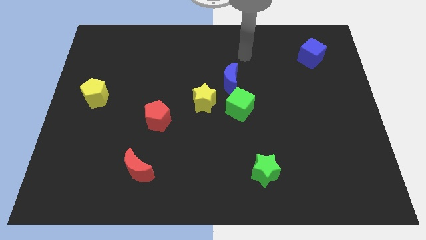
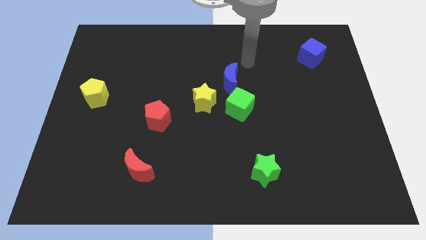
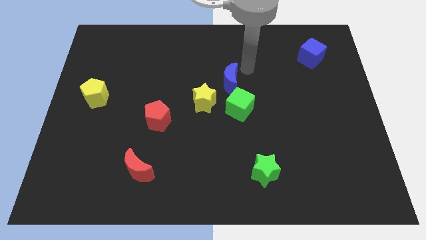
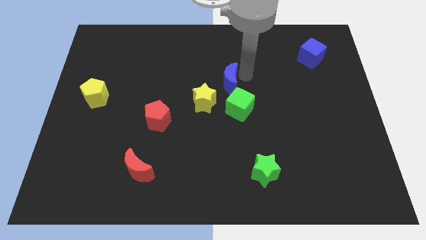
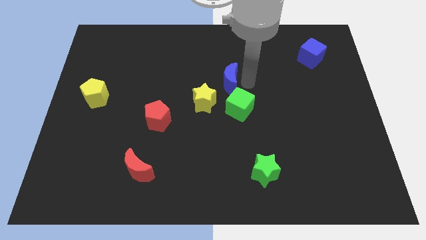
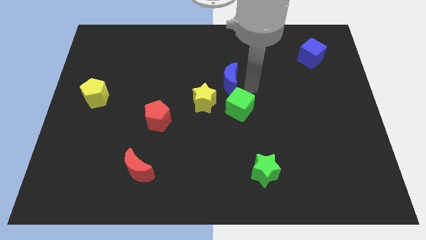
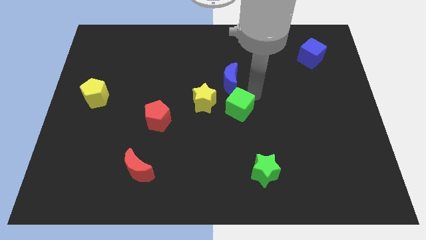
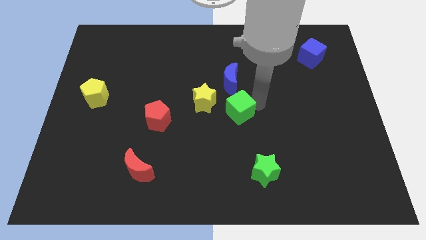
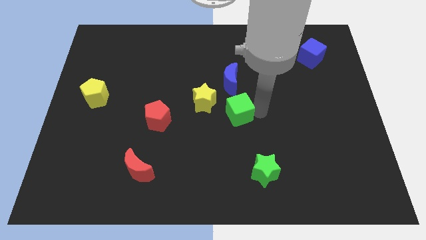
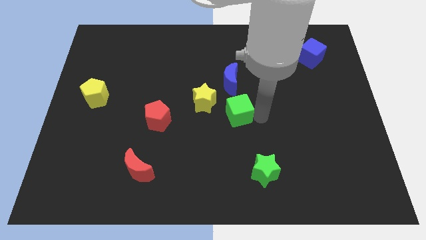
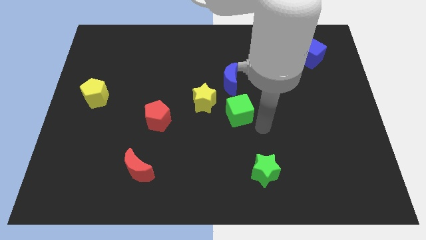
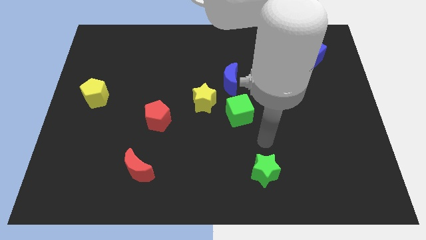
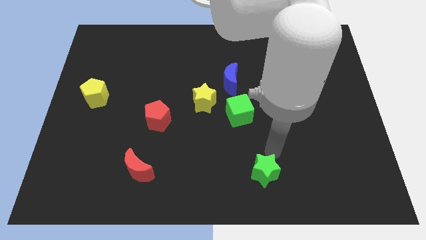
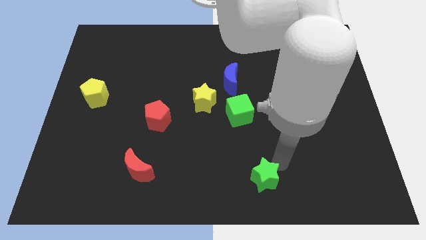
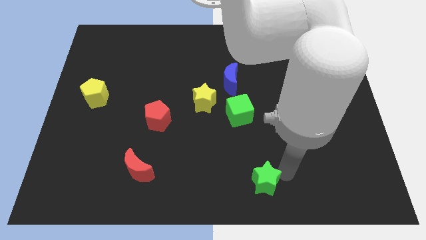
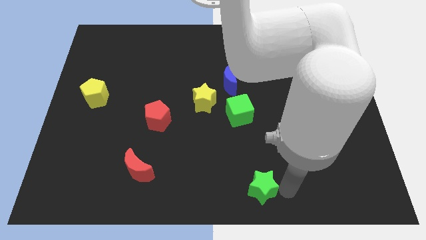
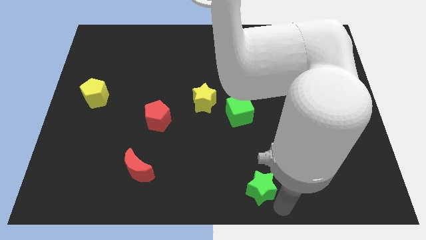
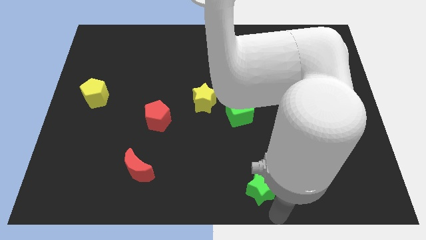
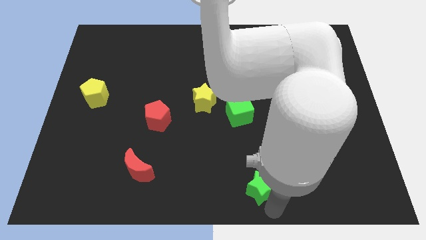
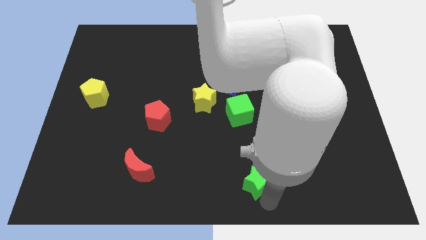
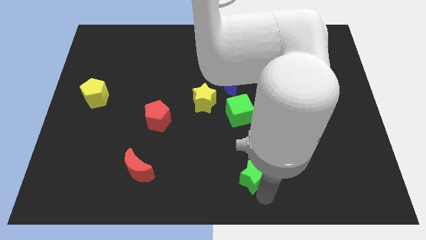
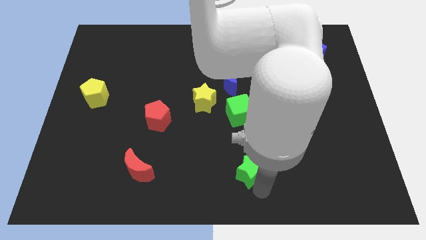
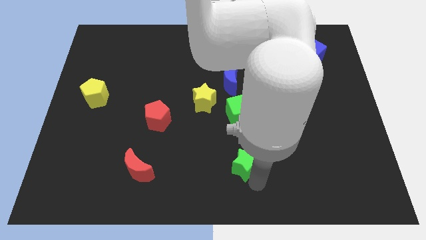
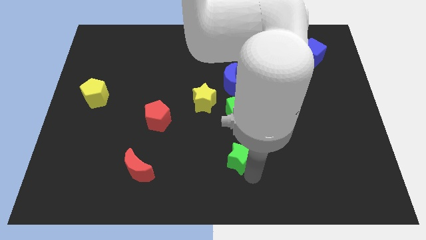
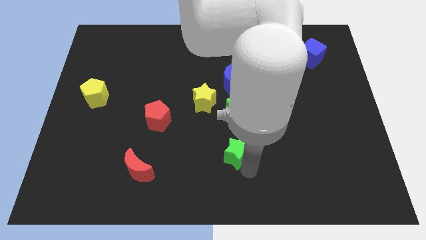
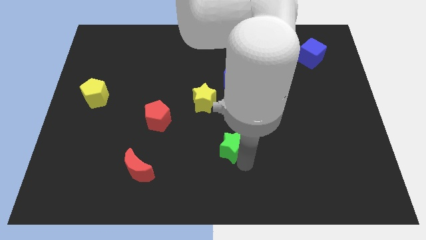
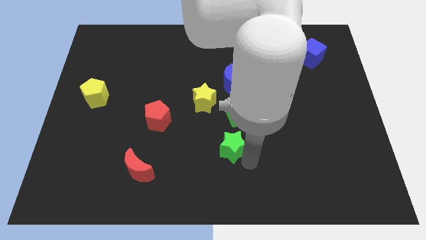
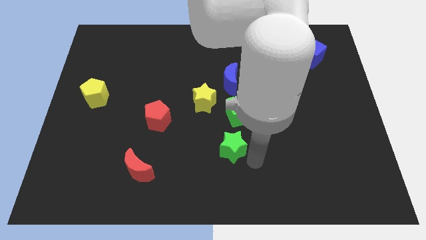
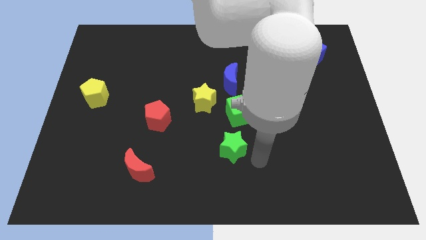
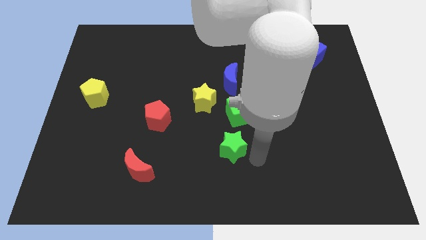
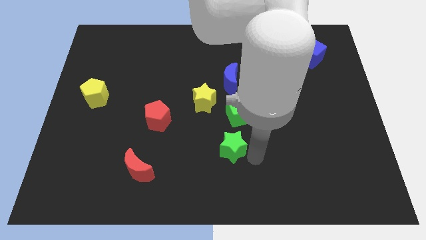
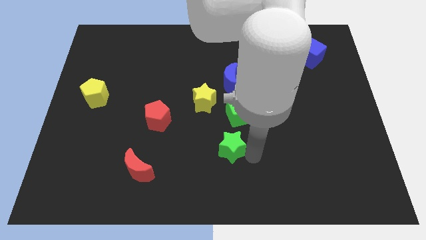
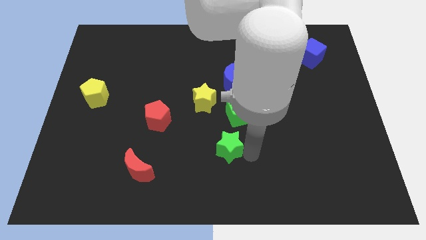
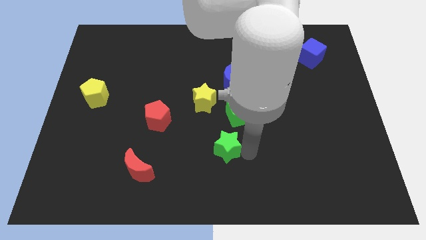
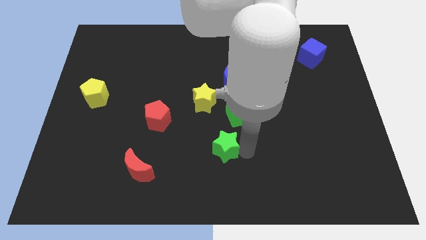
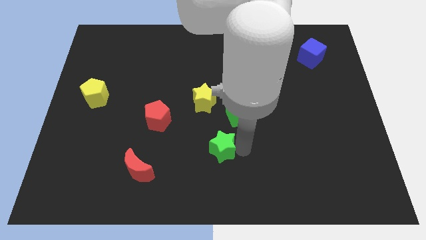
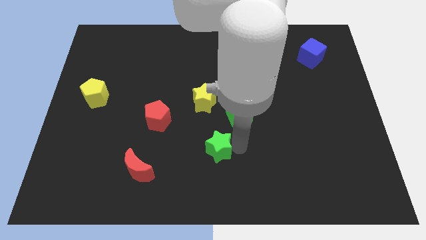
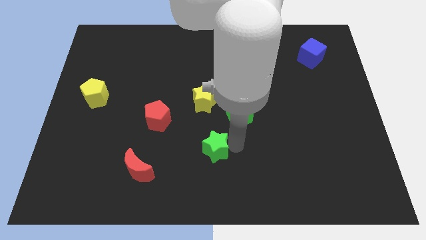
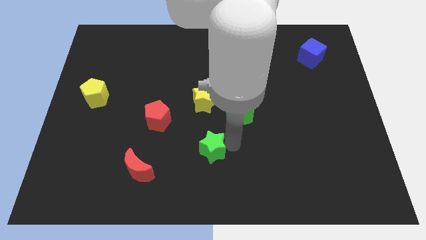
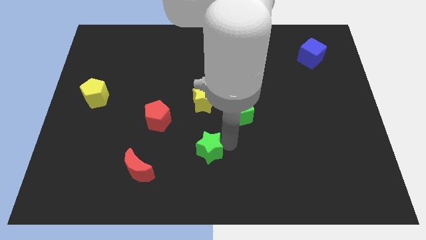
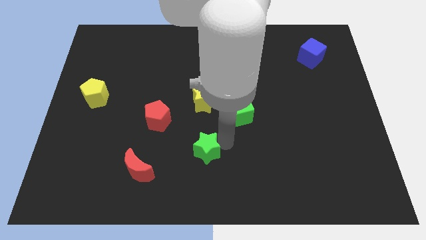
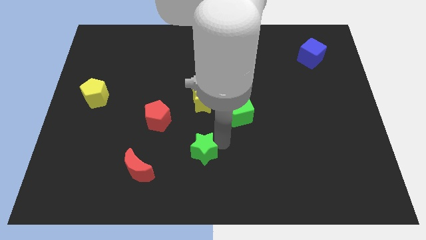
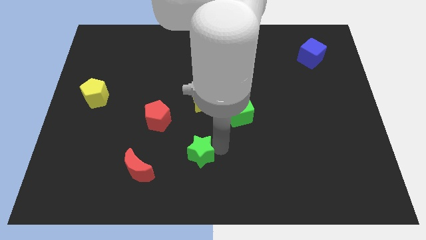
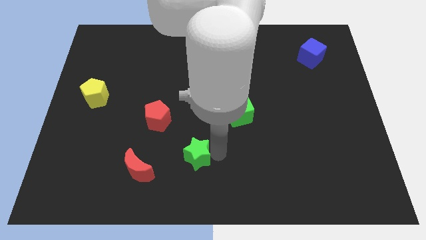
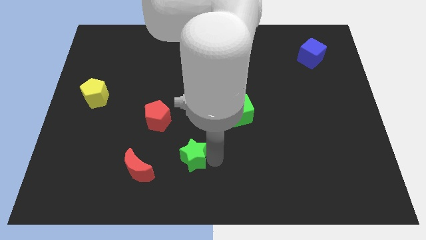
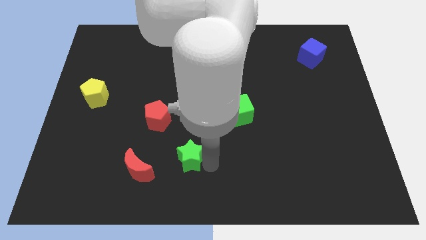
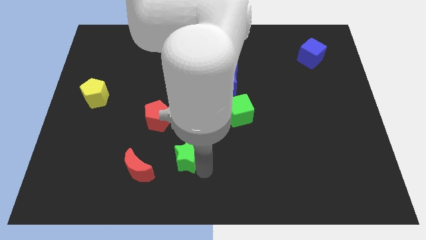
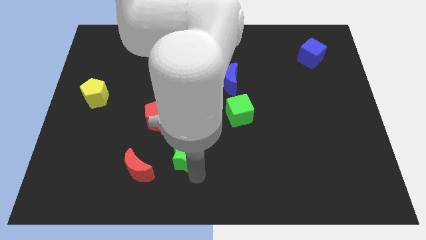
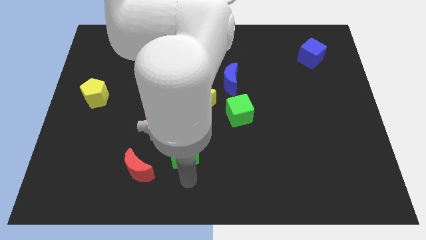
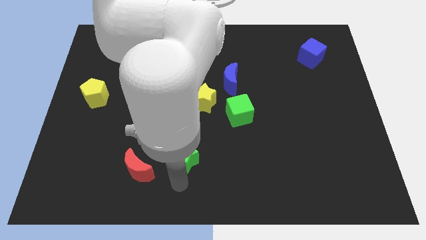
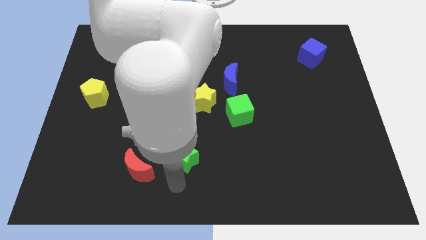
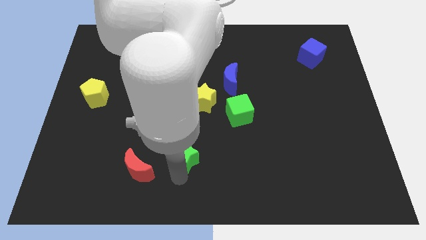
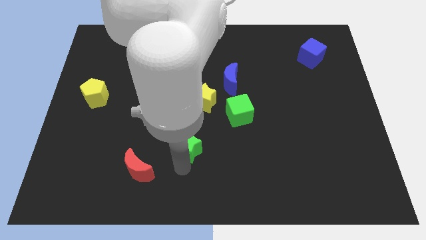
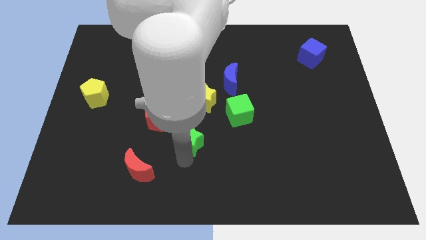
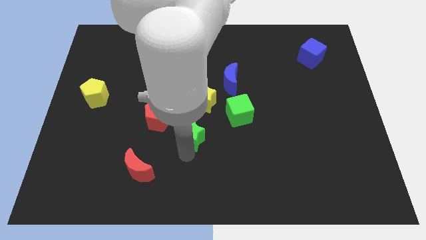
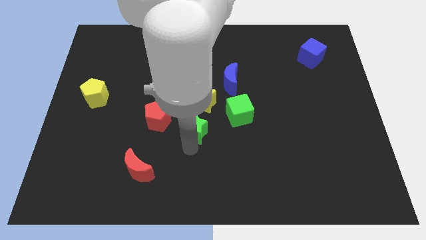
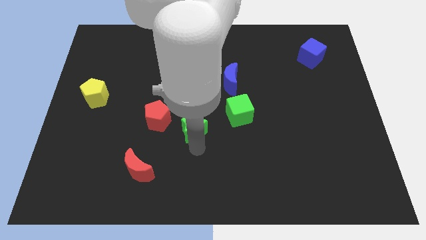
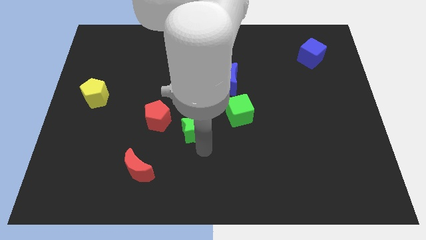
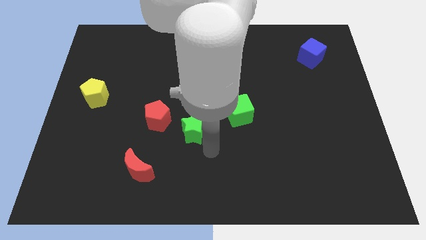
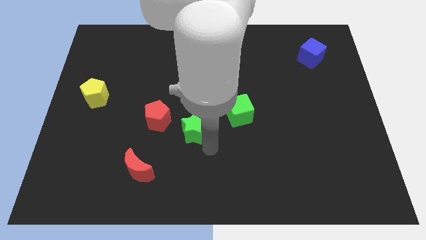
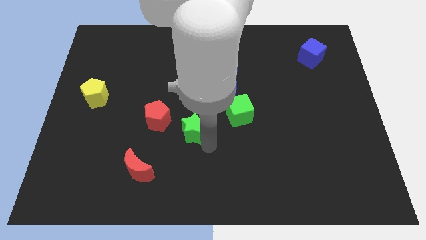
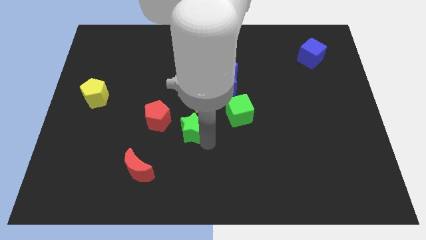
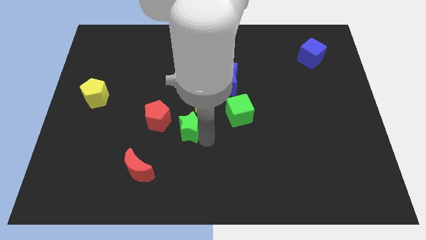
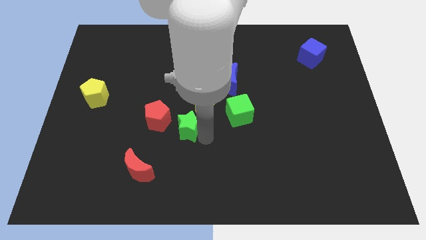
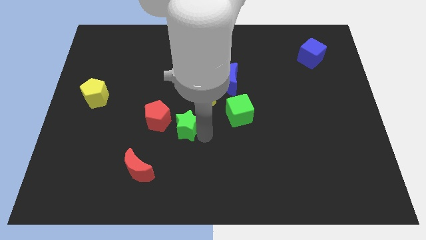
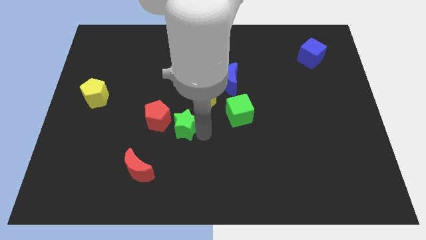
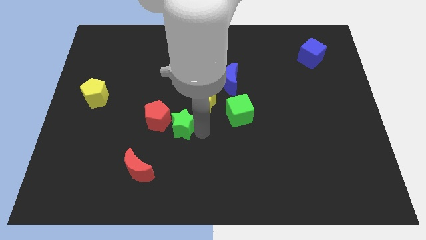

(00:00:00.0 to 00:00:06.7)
move the green star upwards and left

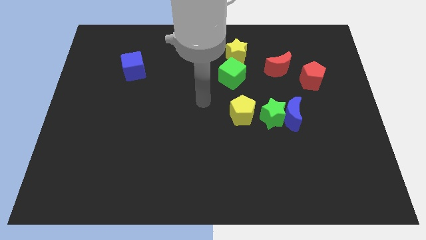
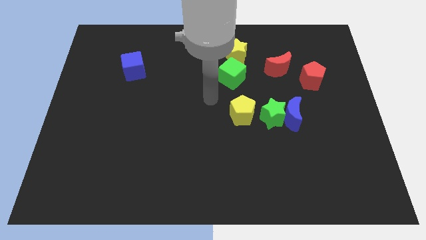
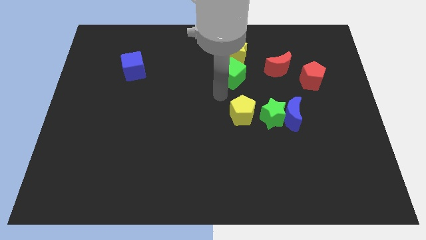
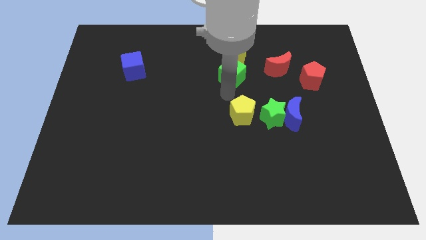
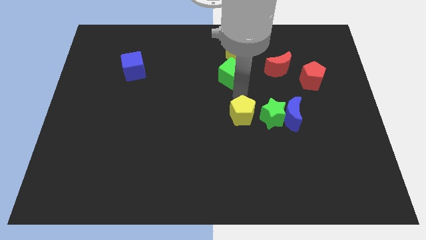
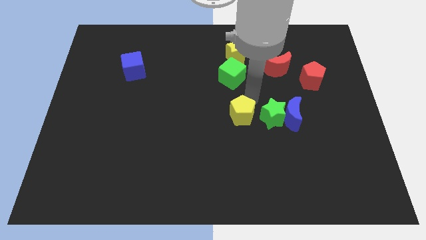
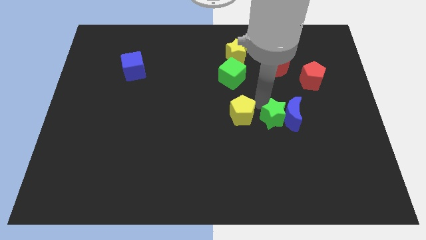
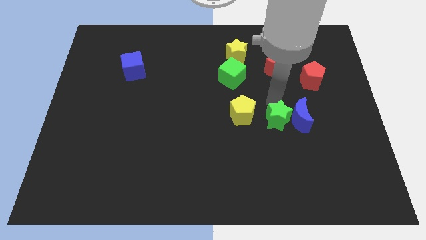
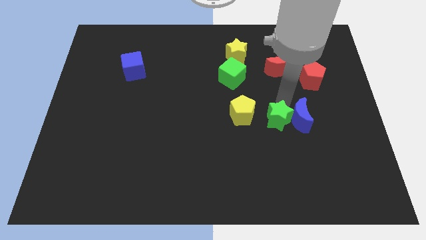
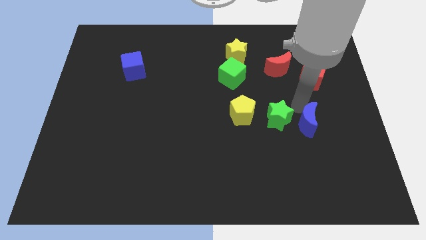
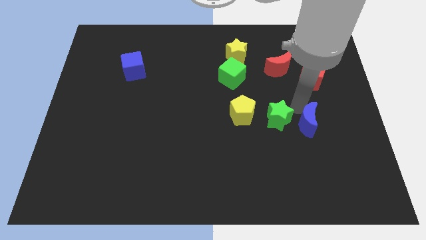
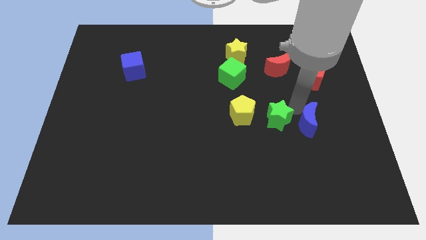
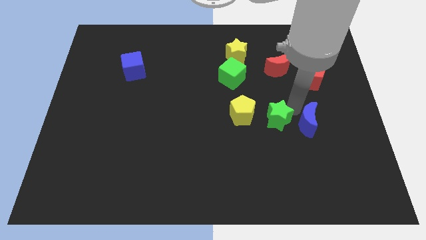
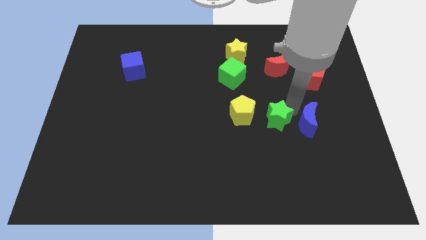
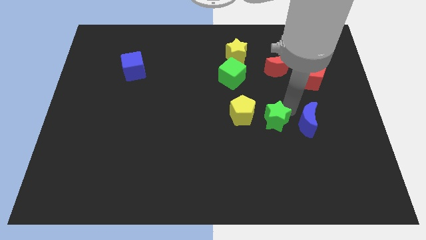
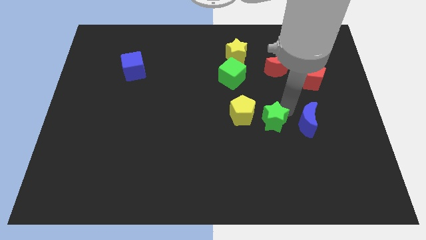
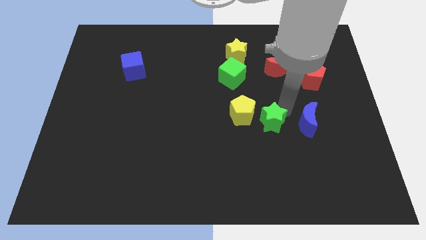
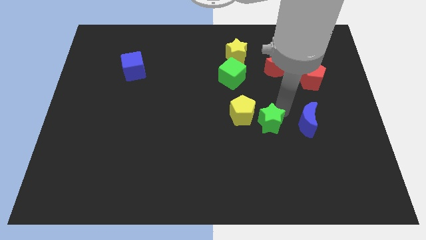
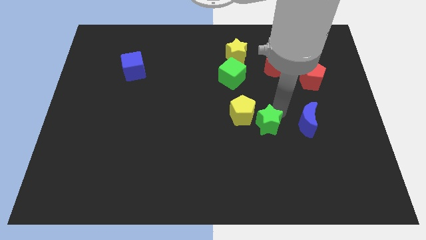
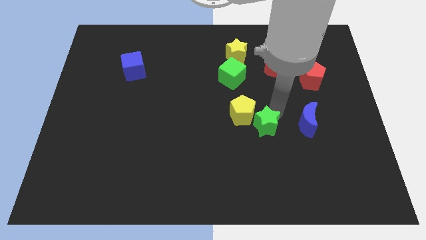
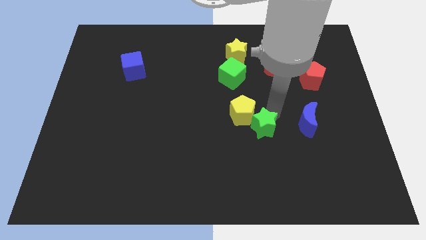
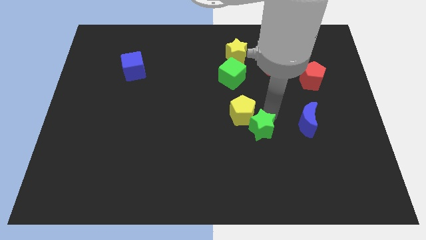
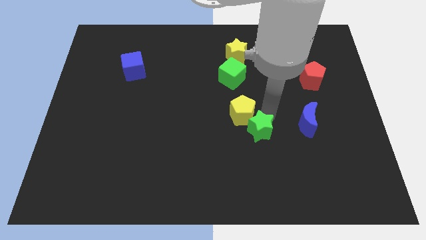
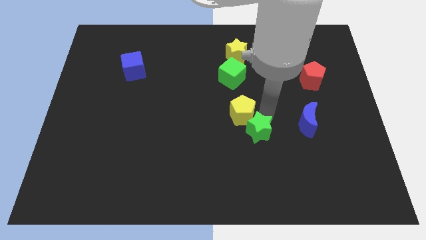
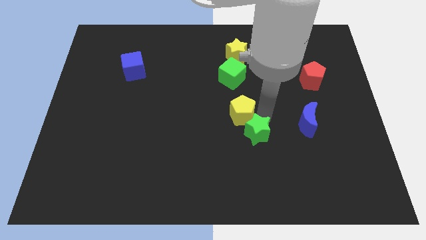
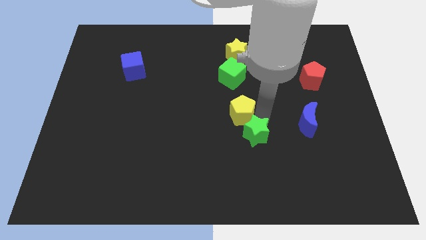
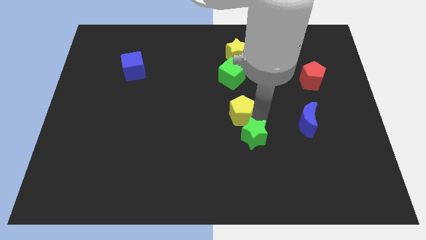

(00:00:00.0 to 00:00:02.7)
slightly push the green star diagonally downwards and to the left
